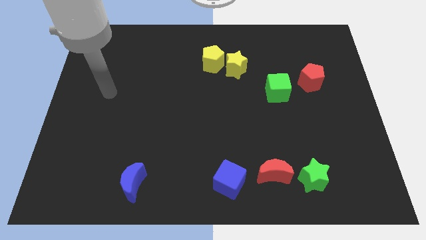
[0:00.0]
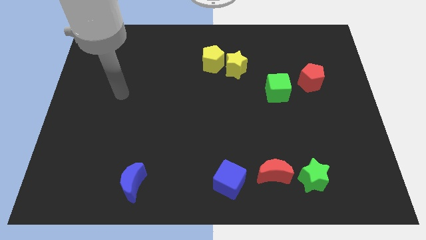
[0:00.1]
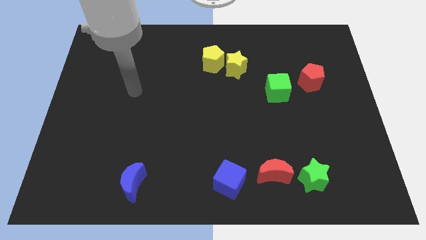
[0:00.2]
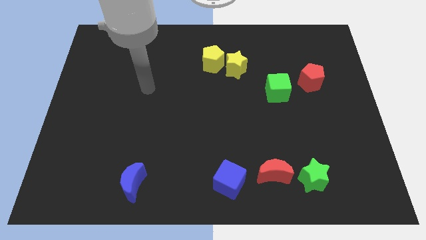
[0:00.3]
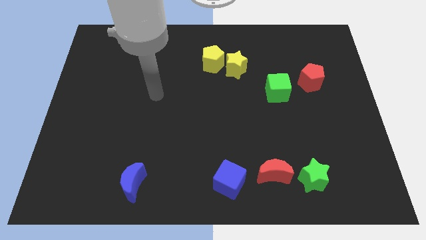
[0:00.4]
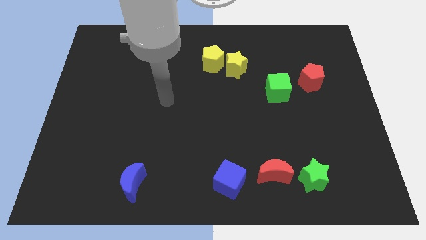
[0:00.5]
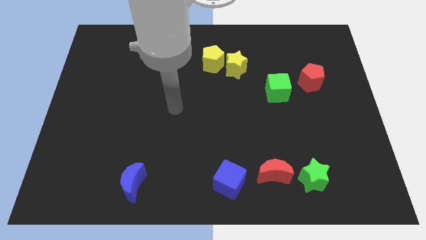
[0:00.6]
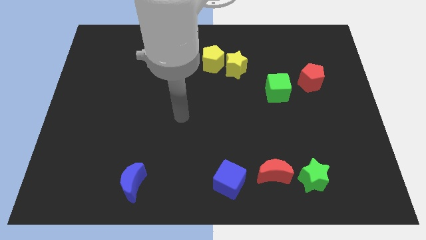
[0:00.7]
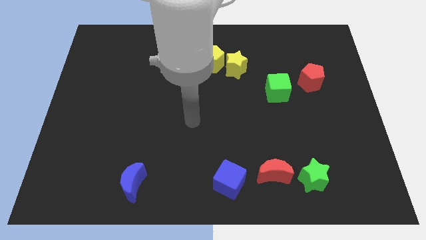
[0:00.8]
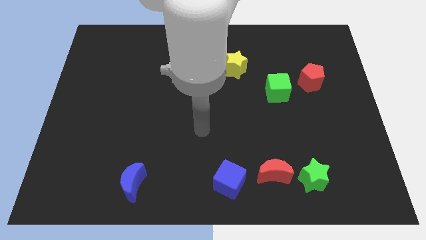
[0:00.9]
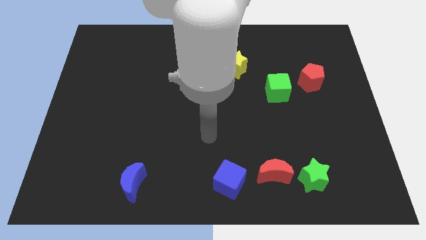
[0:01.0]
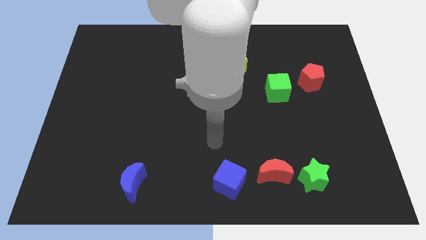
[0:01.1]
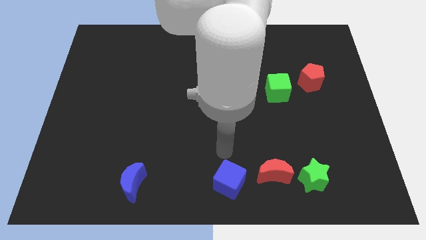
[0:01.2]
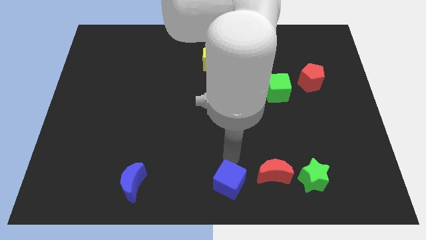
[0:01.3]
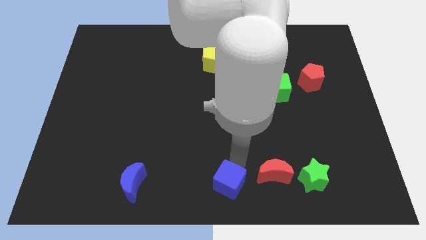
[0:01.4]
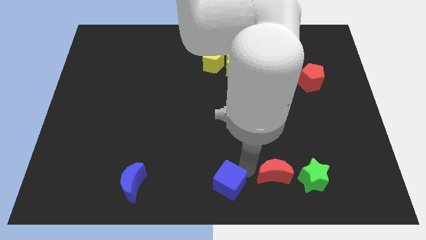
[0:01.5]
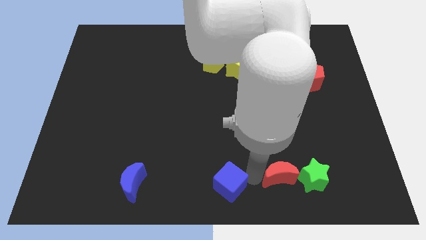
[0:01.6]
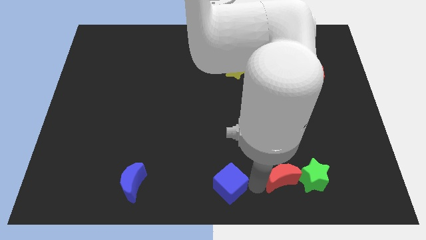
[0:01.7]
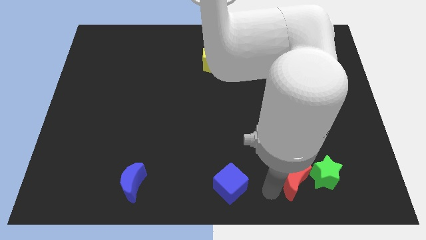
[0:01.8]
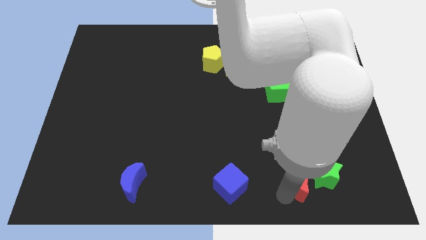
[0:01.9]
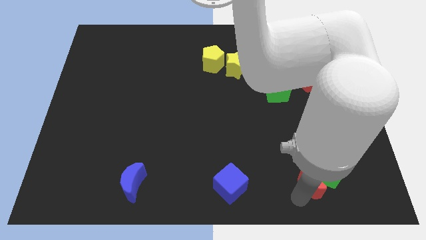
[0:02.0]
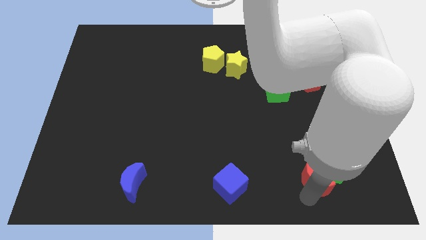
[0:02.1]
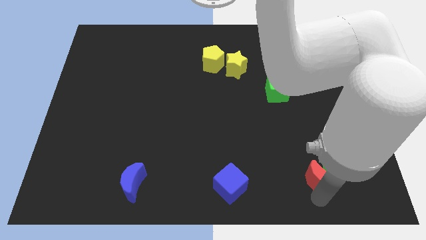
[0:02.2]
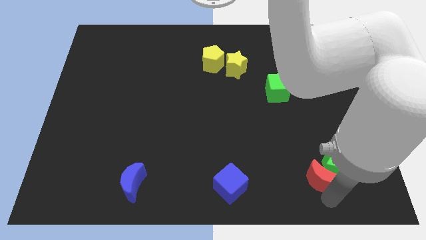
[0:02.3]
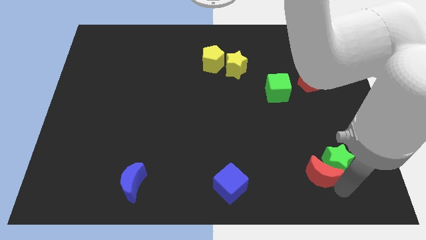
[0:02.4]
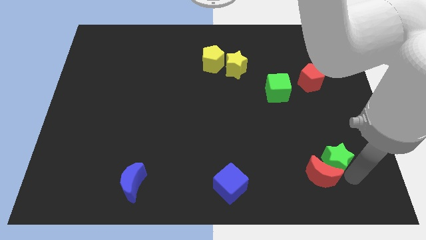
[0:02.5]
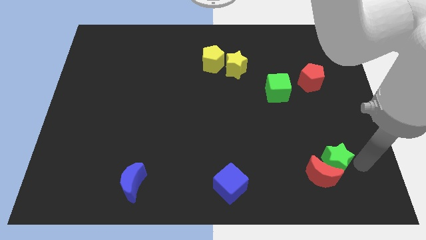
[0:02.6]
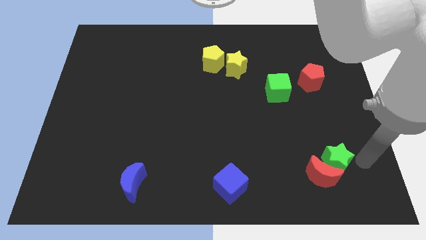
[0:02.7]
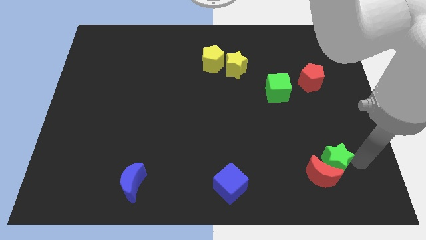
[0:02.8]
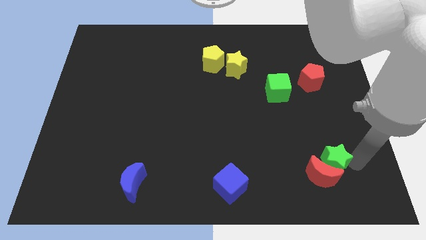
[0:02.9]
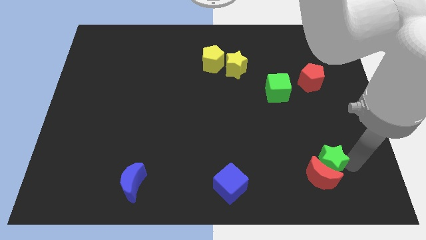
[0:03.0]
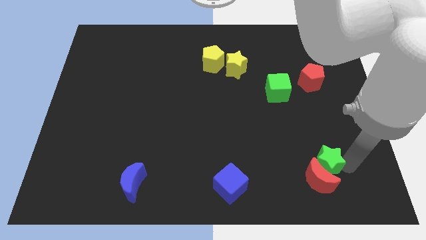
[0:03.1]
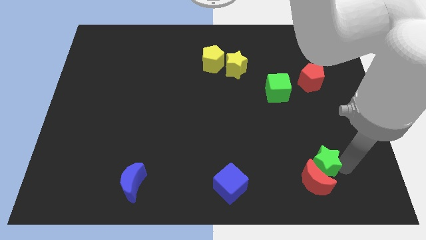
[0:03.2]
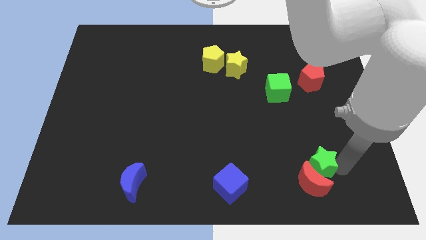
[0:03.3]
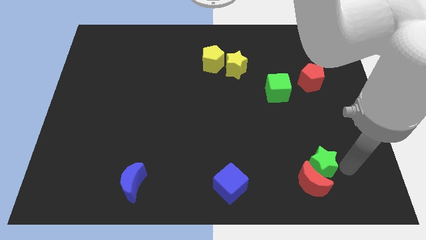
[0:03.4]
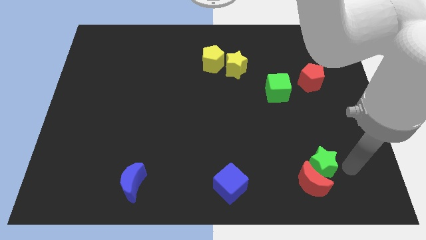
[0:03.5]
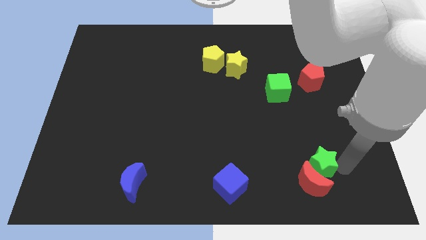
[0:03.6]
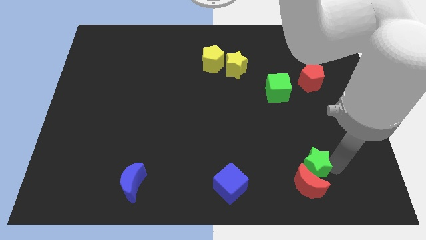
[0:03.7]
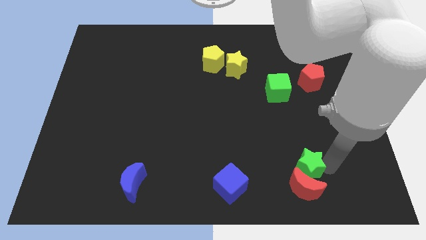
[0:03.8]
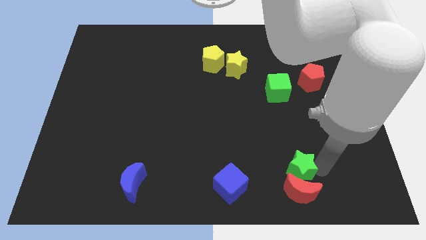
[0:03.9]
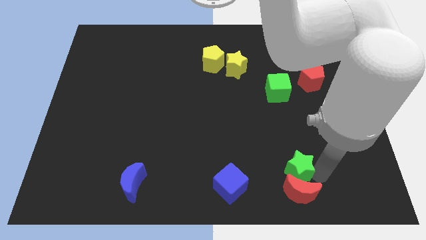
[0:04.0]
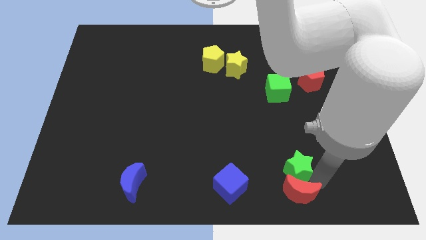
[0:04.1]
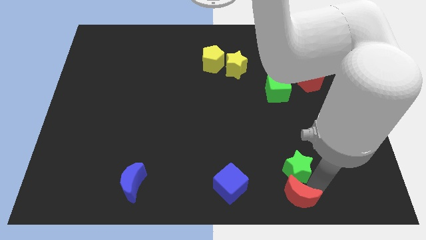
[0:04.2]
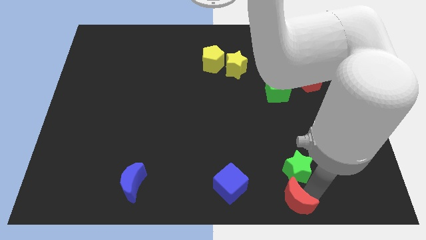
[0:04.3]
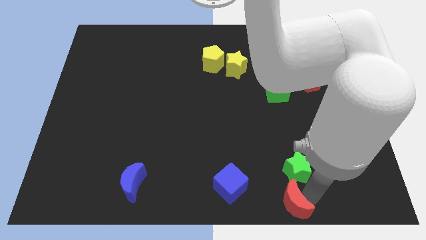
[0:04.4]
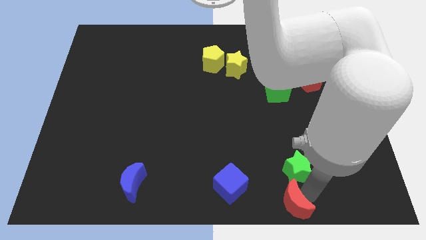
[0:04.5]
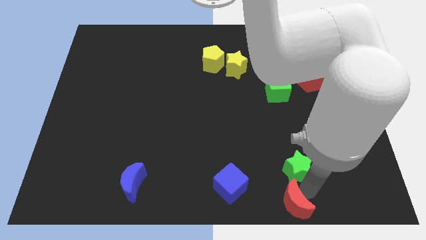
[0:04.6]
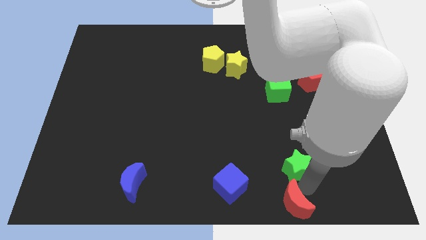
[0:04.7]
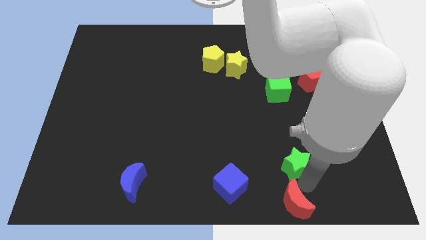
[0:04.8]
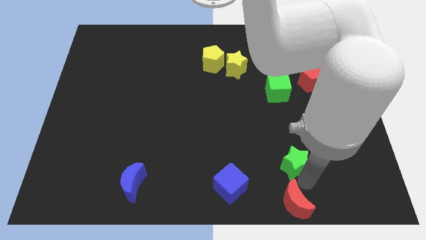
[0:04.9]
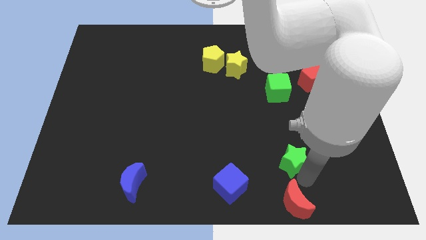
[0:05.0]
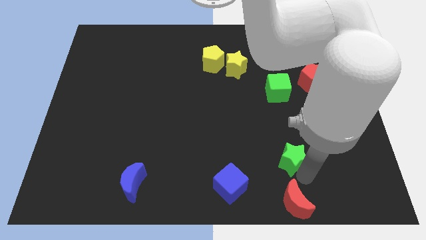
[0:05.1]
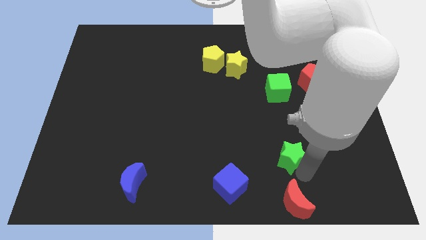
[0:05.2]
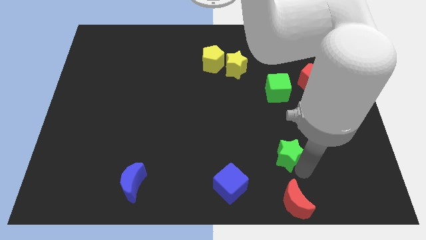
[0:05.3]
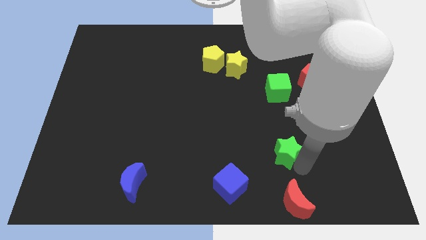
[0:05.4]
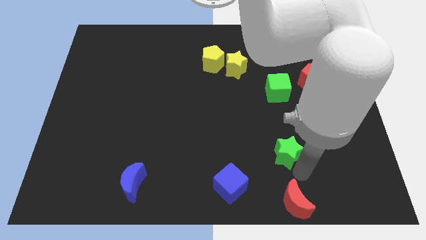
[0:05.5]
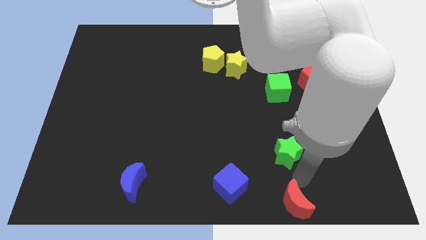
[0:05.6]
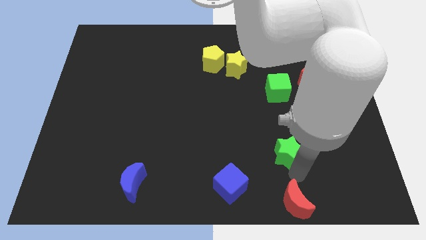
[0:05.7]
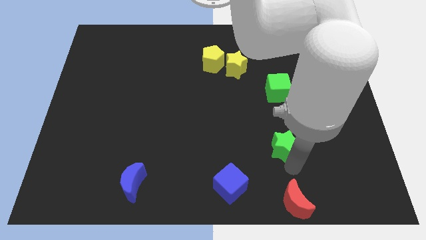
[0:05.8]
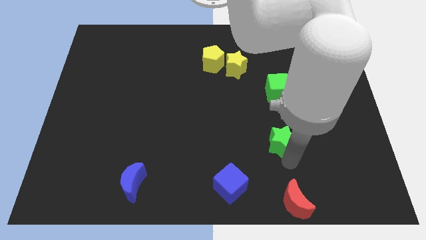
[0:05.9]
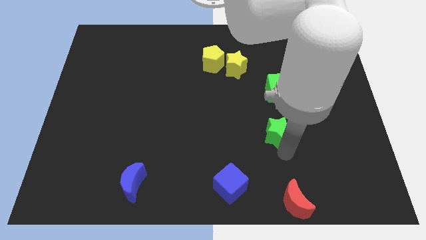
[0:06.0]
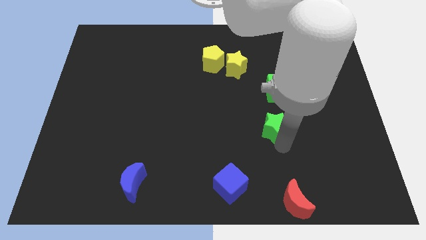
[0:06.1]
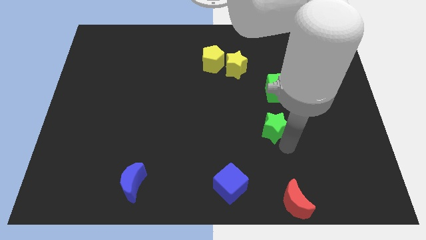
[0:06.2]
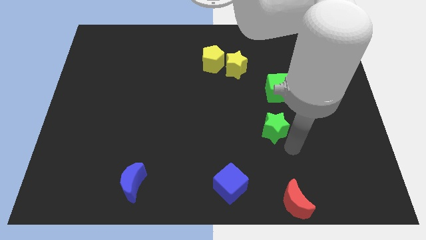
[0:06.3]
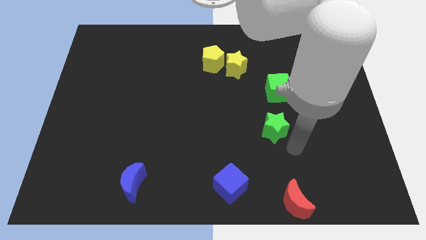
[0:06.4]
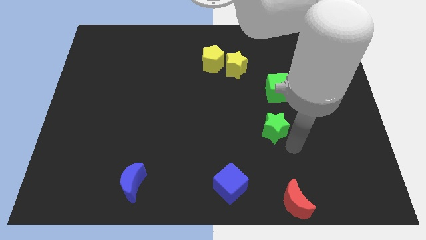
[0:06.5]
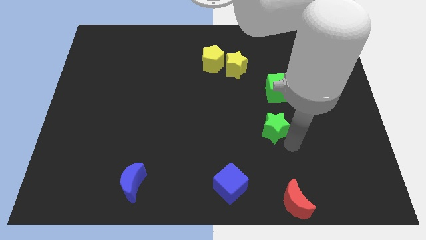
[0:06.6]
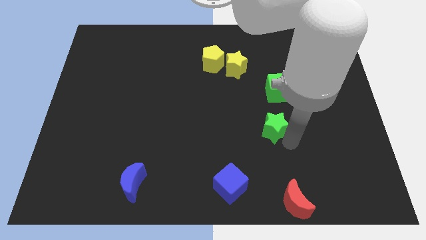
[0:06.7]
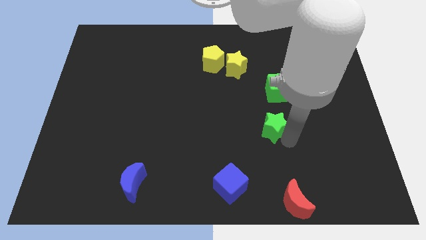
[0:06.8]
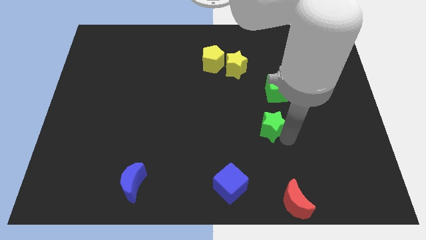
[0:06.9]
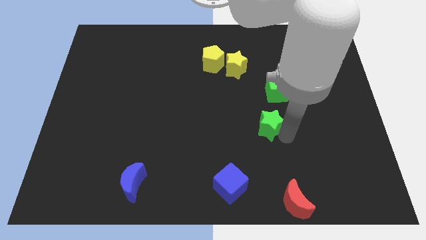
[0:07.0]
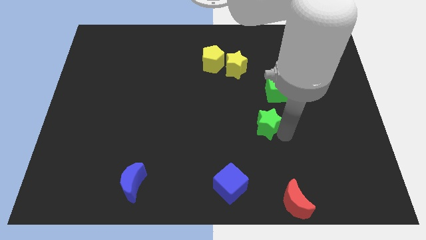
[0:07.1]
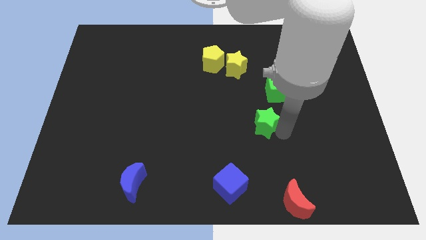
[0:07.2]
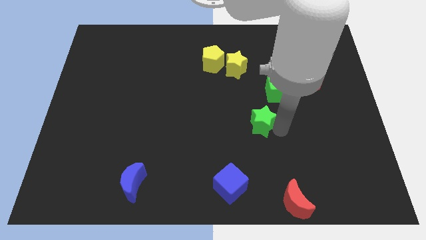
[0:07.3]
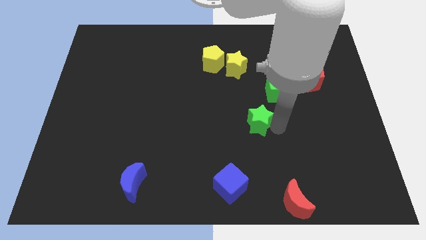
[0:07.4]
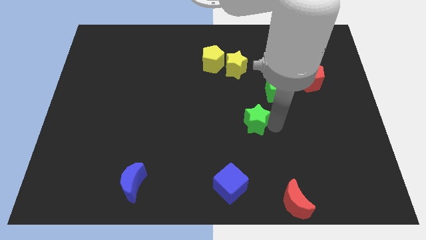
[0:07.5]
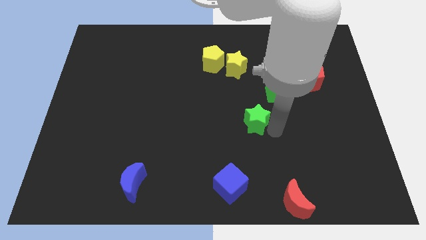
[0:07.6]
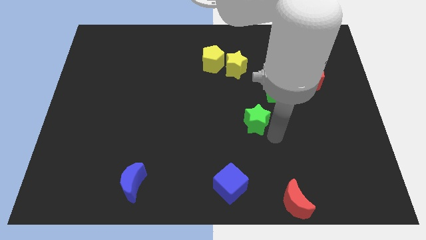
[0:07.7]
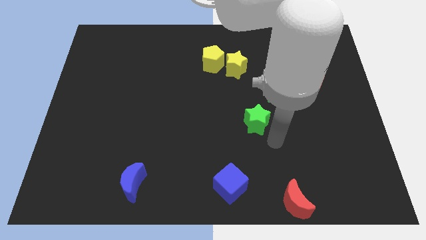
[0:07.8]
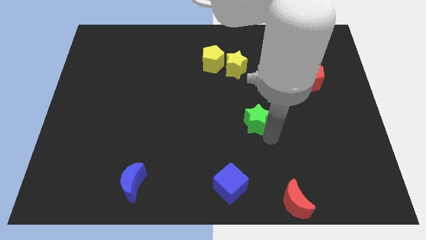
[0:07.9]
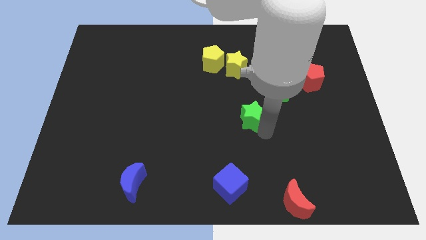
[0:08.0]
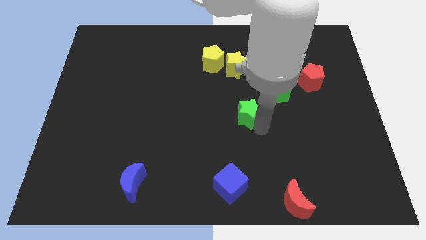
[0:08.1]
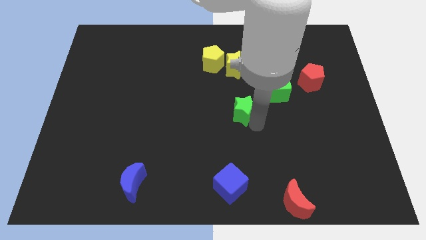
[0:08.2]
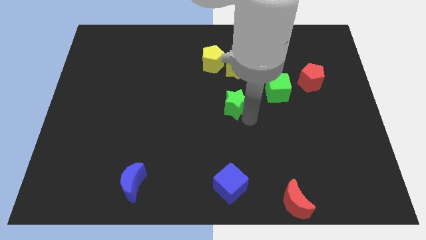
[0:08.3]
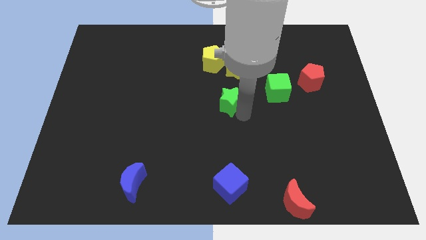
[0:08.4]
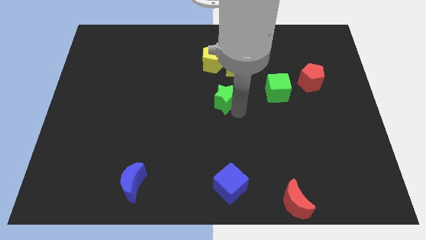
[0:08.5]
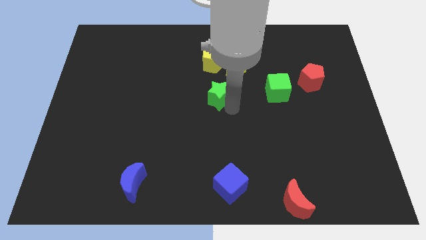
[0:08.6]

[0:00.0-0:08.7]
put the green star to the bottom left side of the yellow star
